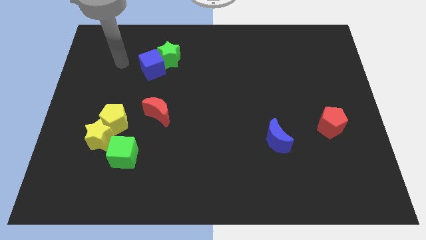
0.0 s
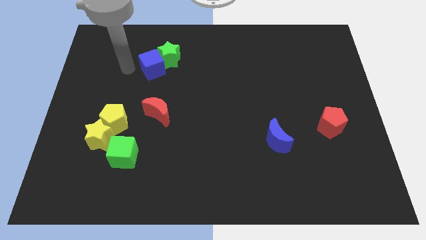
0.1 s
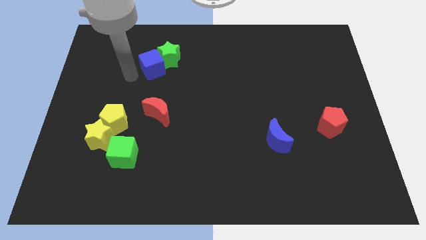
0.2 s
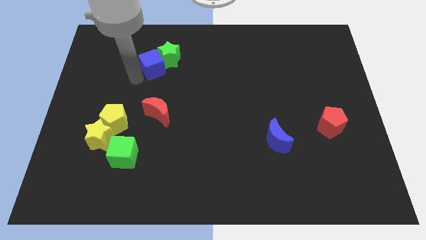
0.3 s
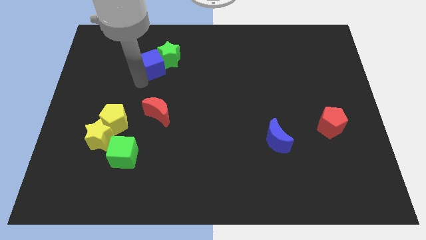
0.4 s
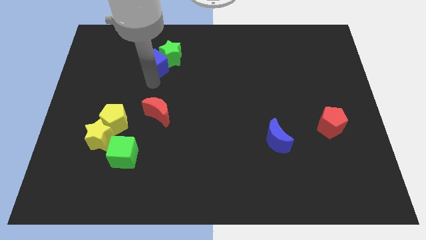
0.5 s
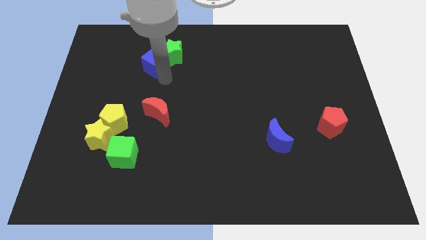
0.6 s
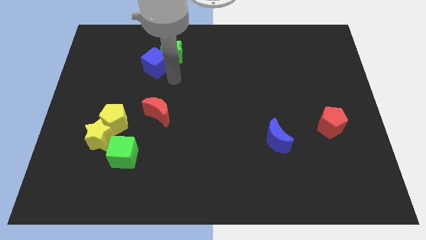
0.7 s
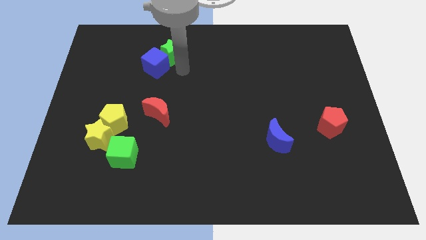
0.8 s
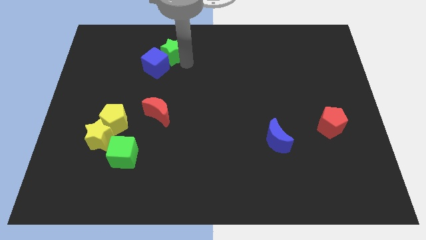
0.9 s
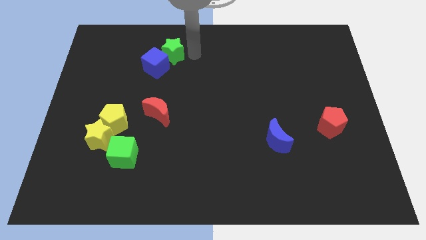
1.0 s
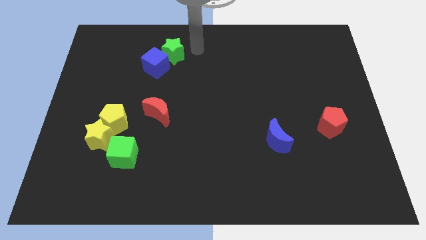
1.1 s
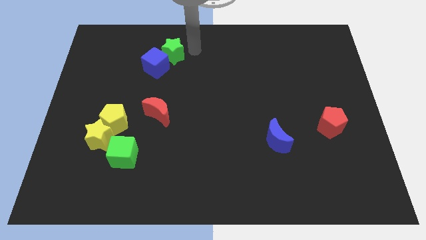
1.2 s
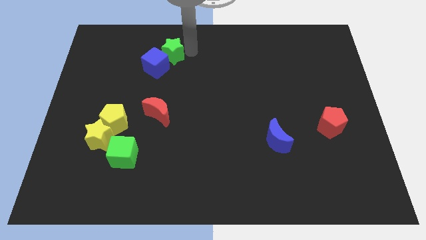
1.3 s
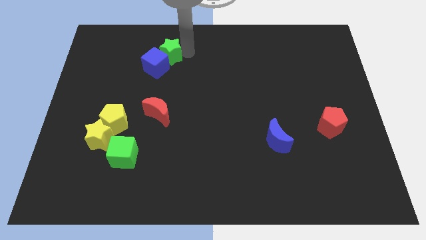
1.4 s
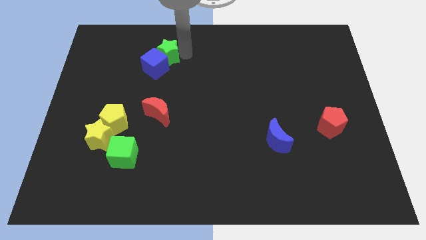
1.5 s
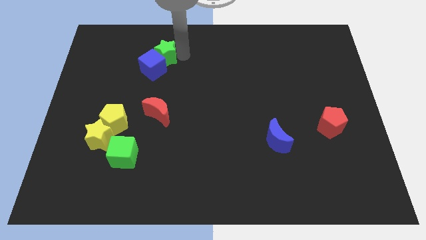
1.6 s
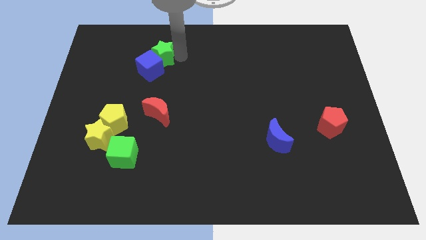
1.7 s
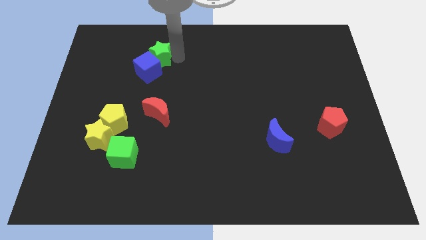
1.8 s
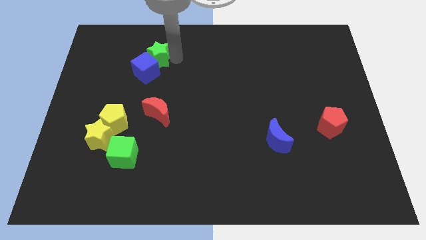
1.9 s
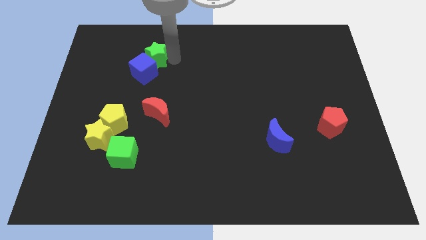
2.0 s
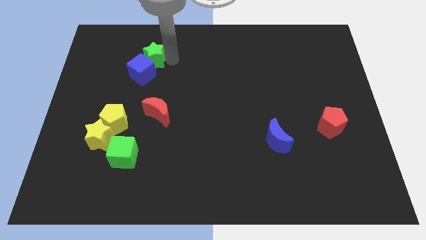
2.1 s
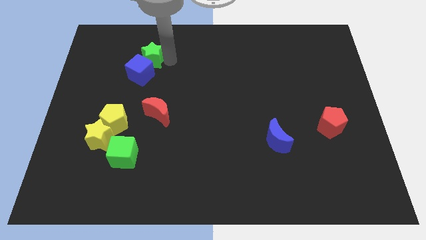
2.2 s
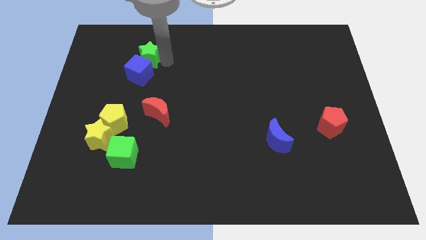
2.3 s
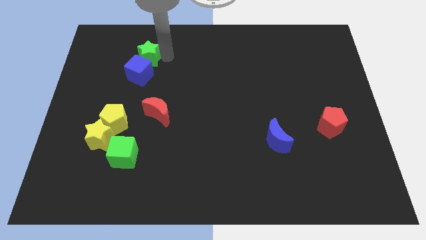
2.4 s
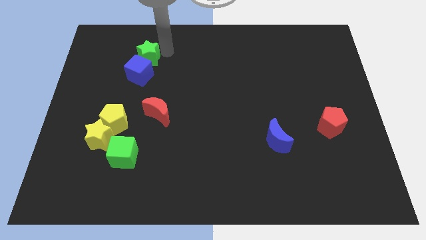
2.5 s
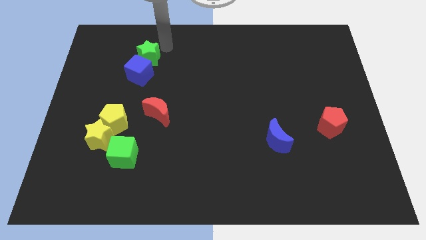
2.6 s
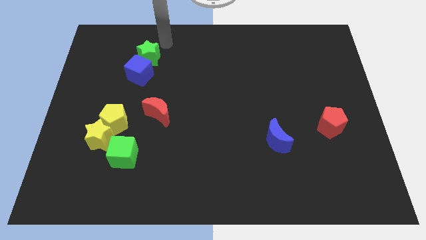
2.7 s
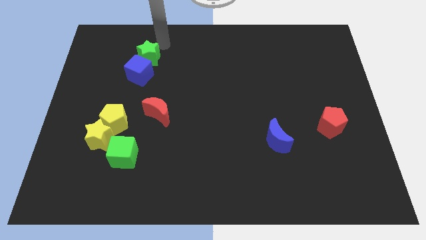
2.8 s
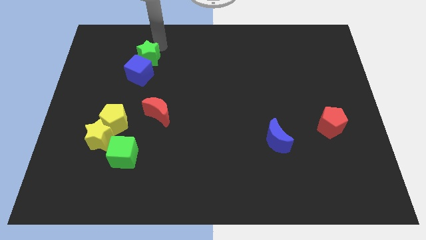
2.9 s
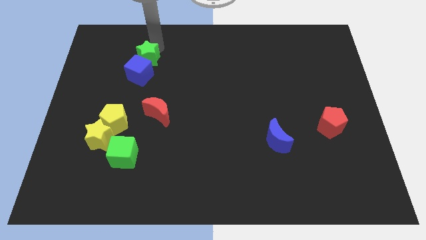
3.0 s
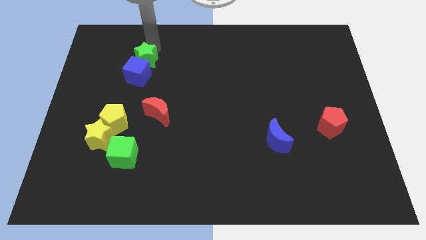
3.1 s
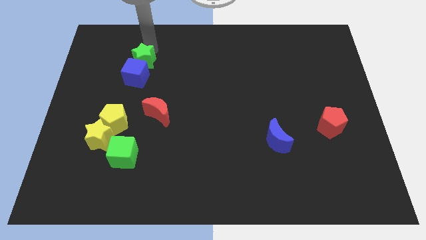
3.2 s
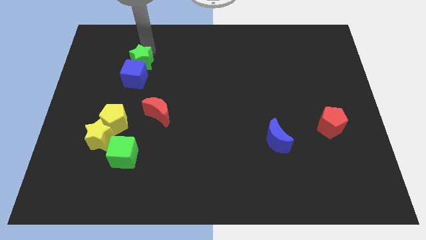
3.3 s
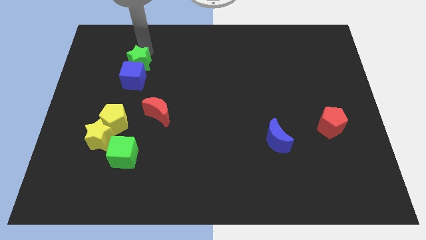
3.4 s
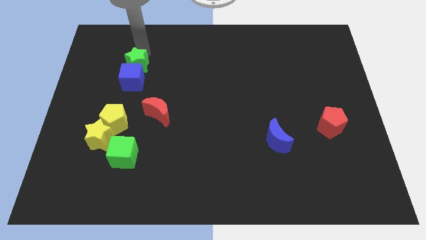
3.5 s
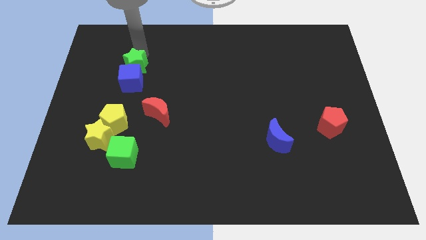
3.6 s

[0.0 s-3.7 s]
move the green star diagonally down and left a bit

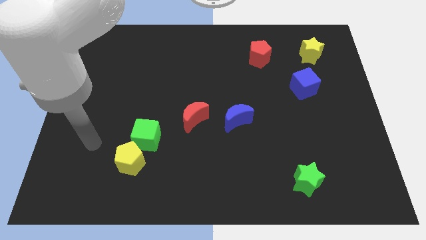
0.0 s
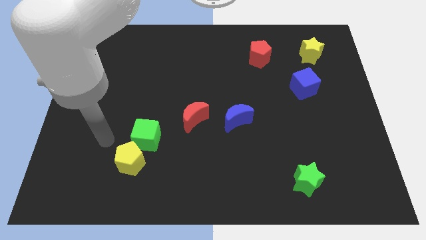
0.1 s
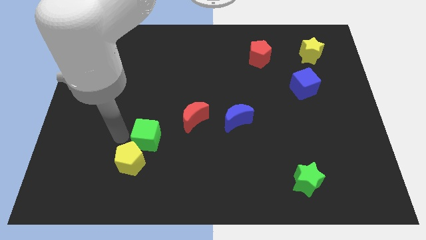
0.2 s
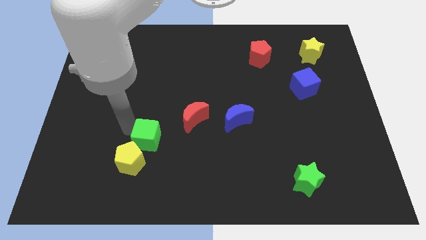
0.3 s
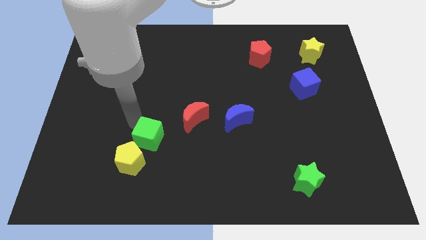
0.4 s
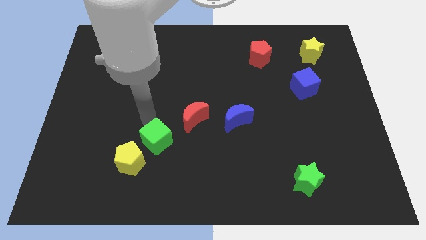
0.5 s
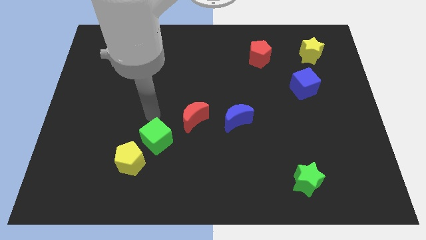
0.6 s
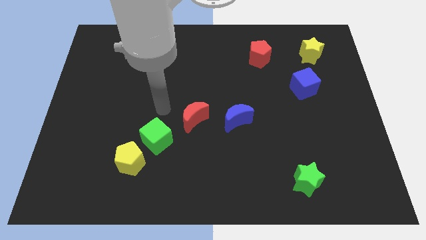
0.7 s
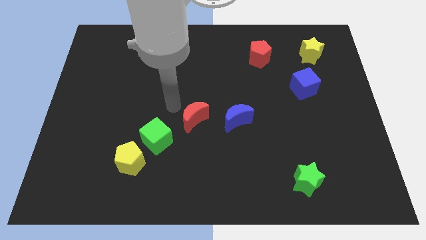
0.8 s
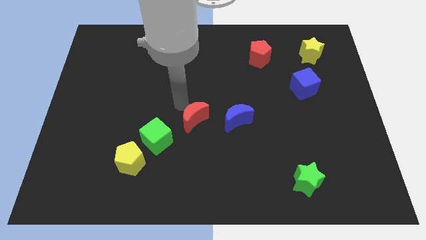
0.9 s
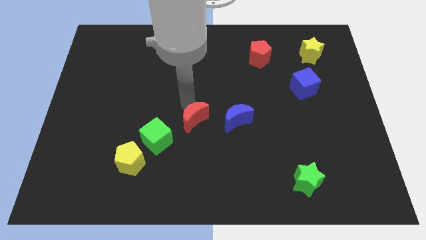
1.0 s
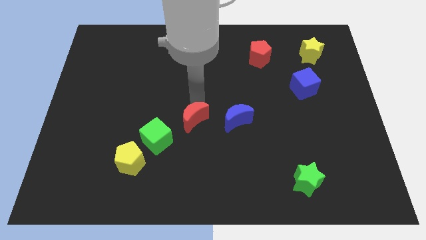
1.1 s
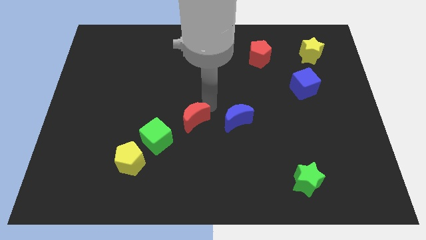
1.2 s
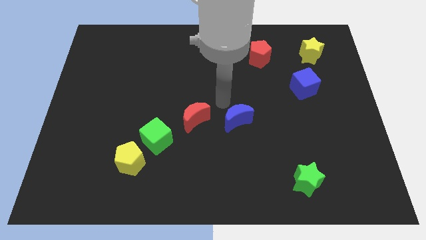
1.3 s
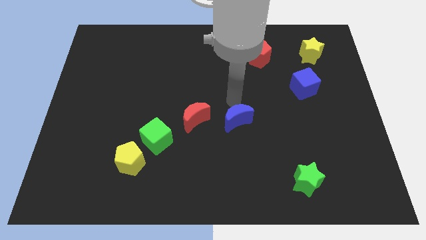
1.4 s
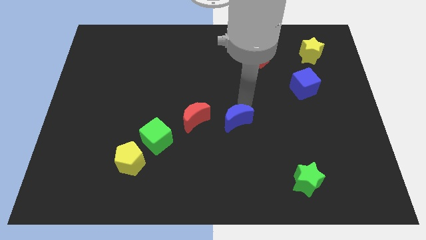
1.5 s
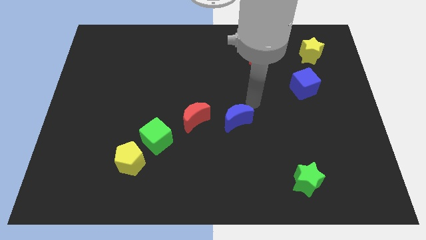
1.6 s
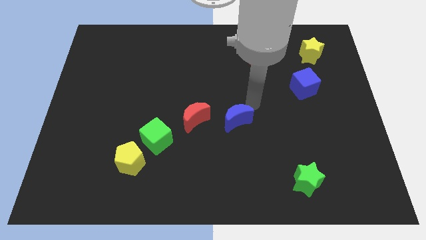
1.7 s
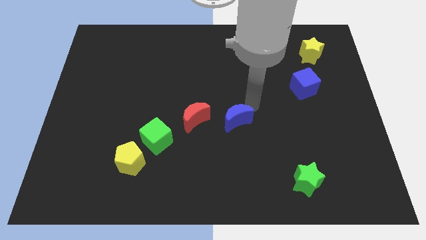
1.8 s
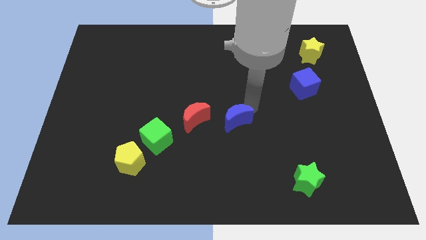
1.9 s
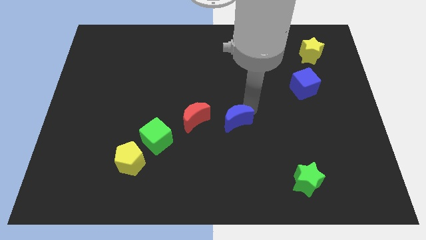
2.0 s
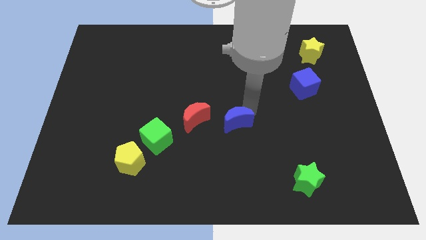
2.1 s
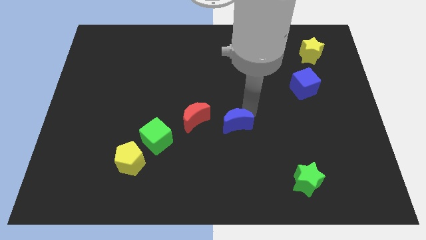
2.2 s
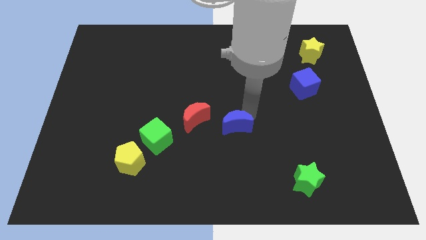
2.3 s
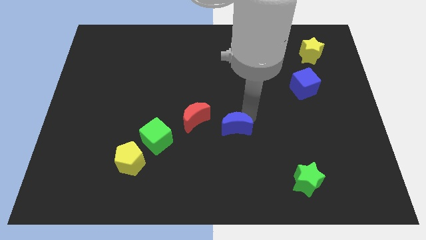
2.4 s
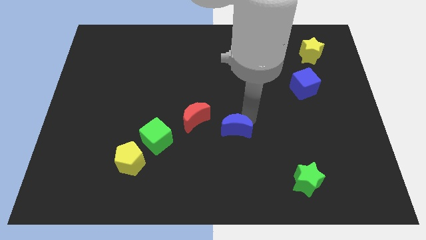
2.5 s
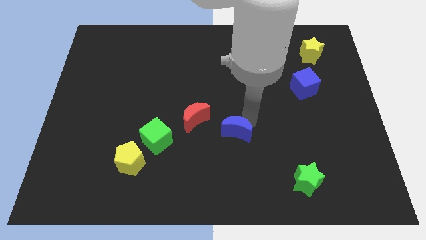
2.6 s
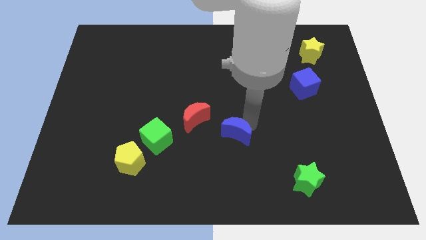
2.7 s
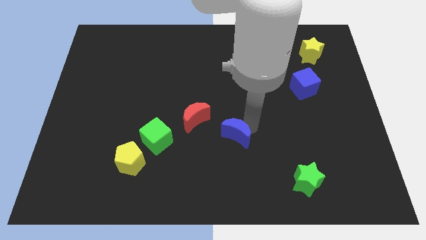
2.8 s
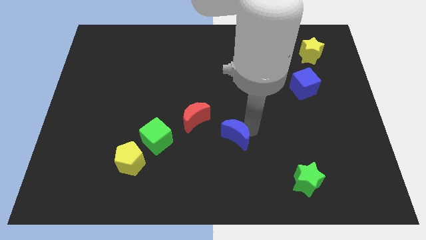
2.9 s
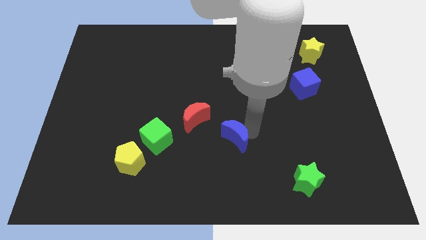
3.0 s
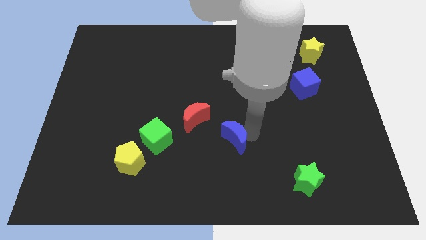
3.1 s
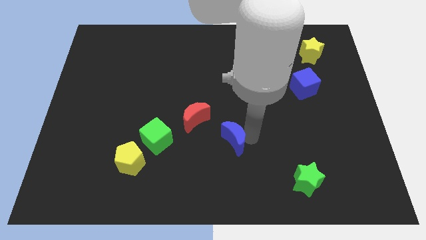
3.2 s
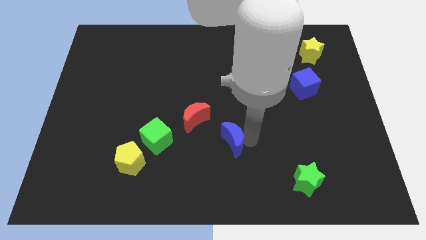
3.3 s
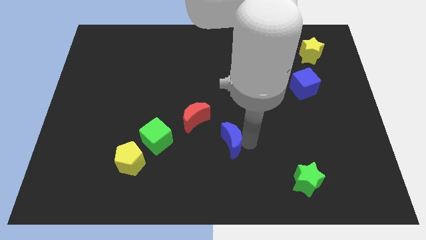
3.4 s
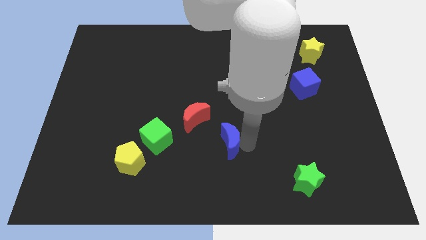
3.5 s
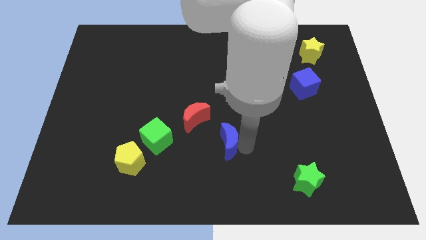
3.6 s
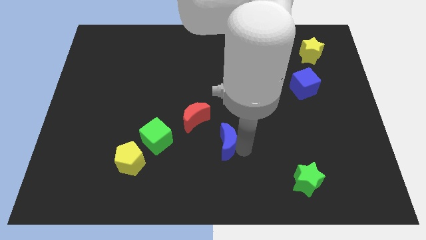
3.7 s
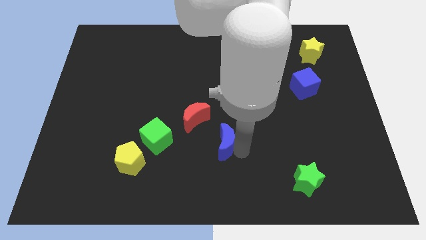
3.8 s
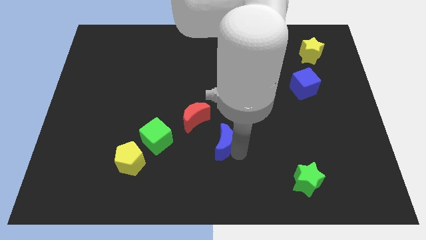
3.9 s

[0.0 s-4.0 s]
push the blue moon down and then left somewhat

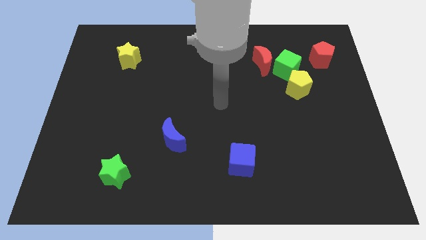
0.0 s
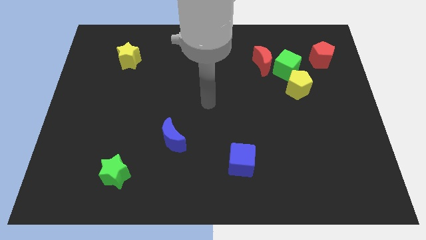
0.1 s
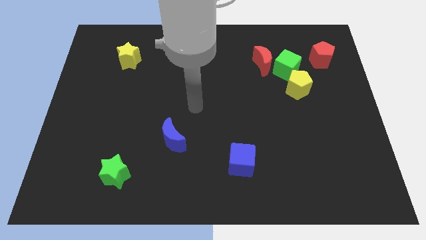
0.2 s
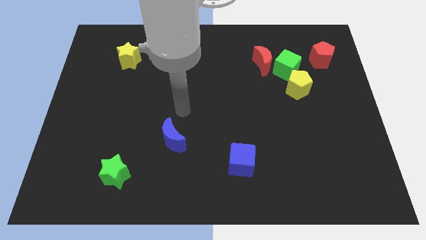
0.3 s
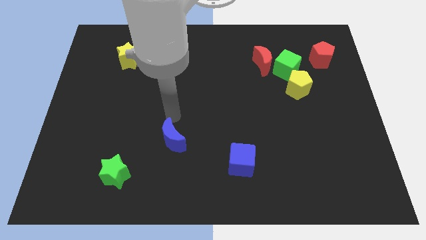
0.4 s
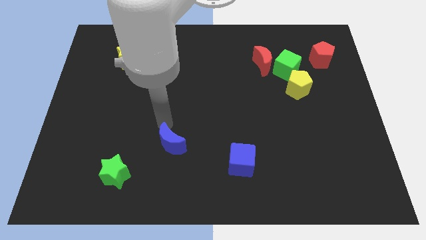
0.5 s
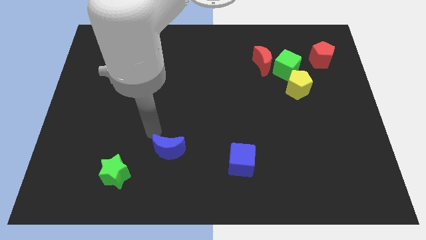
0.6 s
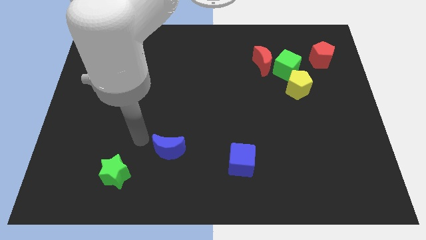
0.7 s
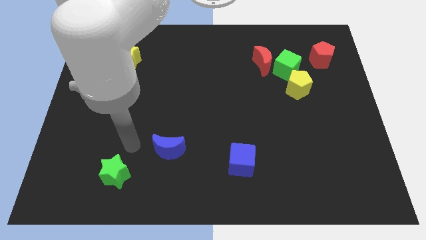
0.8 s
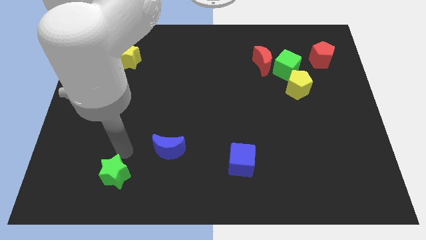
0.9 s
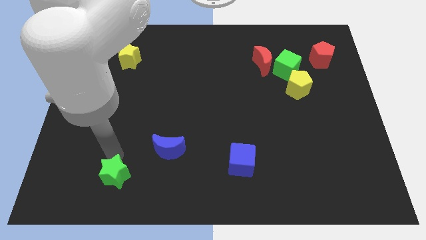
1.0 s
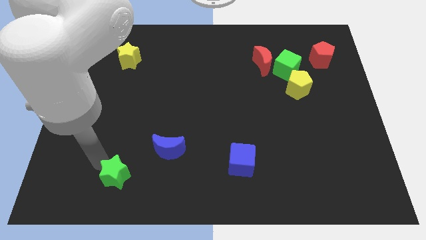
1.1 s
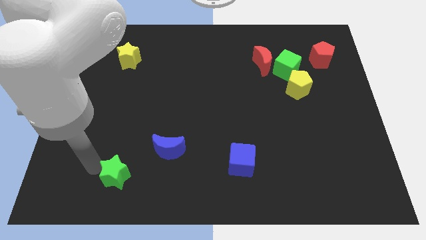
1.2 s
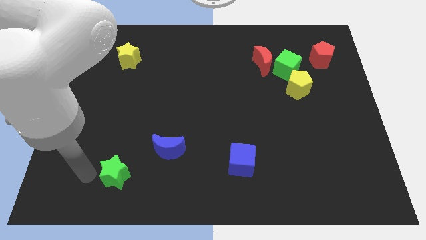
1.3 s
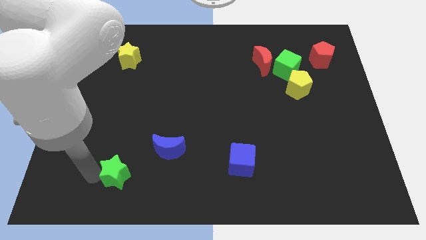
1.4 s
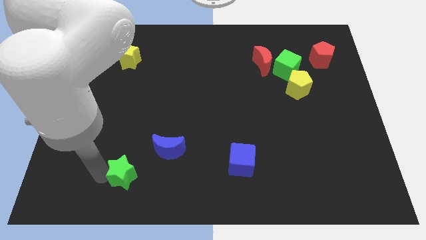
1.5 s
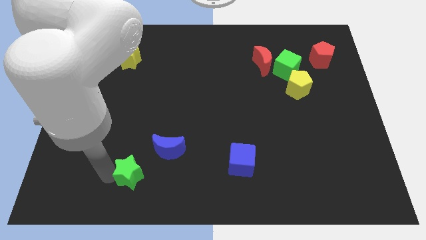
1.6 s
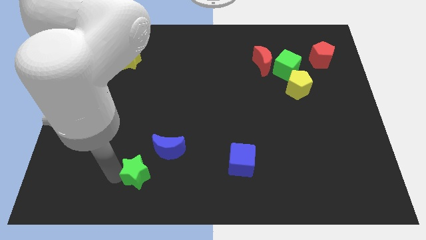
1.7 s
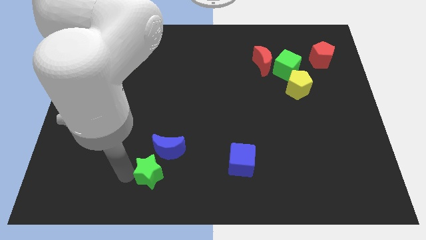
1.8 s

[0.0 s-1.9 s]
slide the green star slightly to the right
